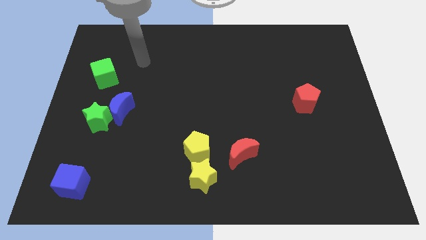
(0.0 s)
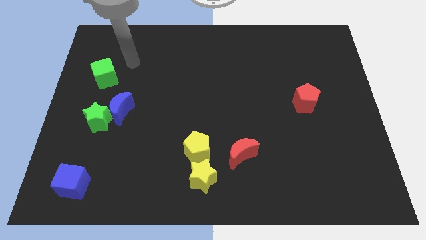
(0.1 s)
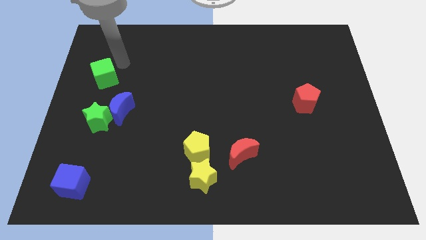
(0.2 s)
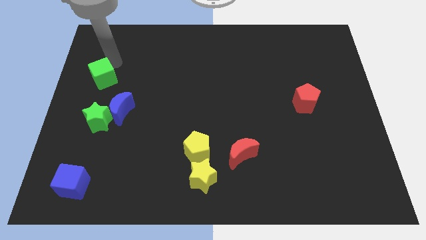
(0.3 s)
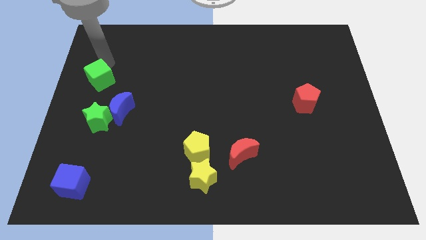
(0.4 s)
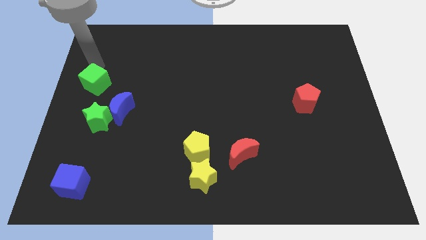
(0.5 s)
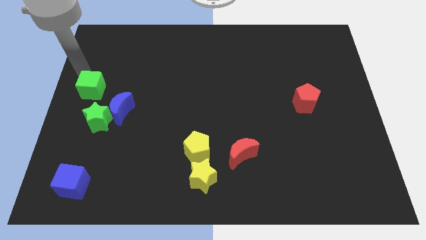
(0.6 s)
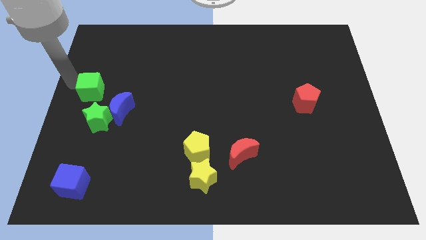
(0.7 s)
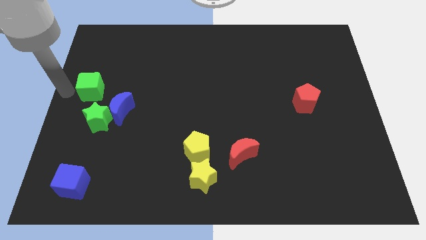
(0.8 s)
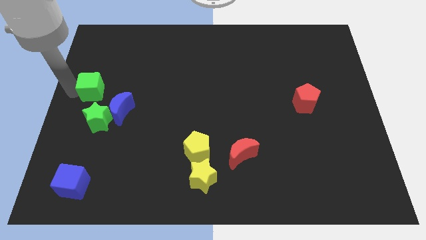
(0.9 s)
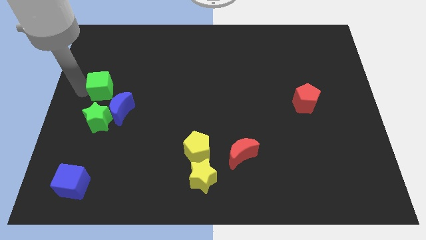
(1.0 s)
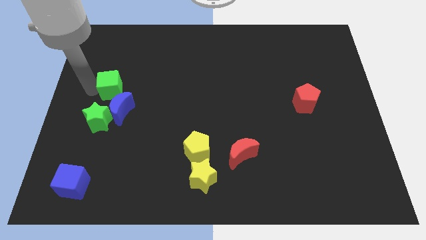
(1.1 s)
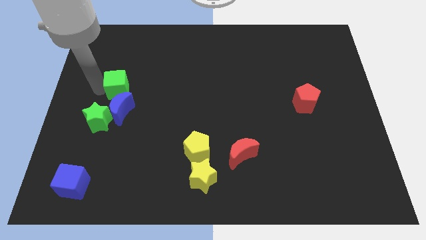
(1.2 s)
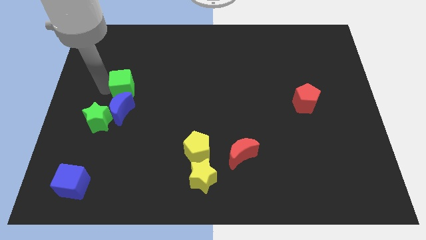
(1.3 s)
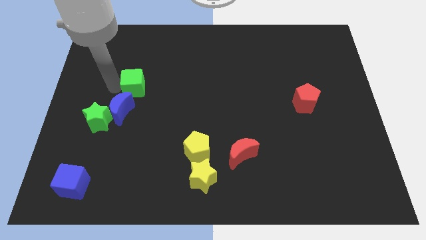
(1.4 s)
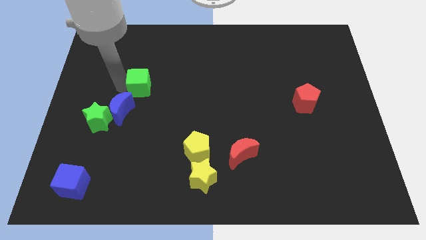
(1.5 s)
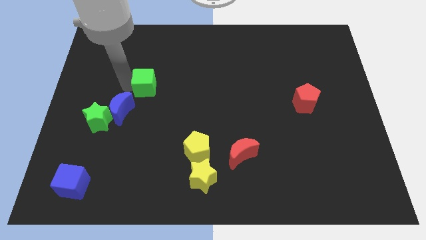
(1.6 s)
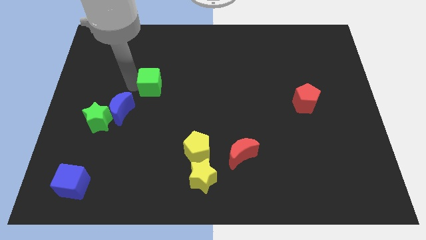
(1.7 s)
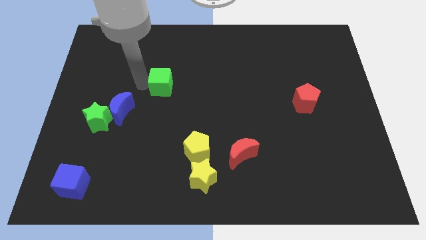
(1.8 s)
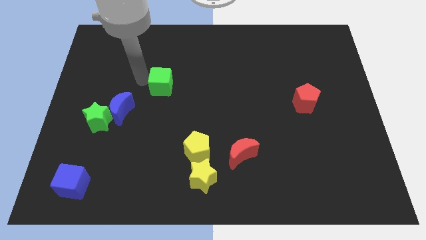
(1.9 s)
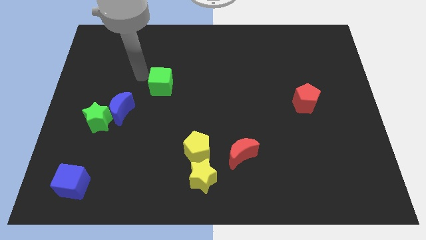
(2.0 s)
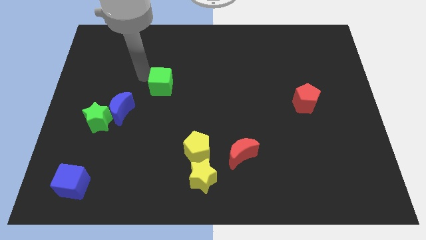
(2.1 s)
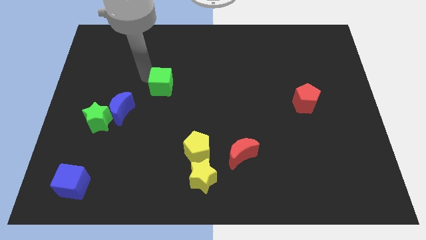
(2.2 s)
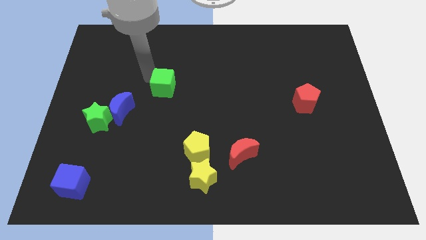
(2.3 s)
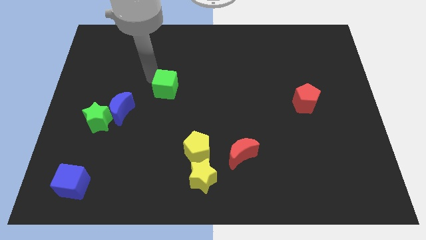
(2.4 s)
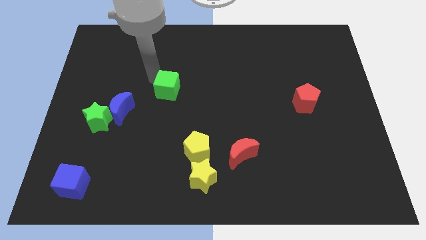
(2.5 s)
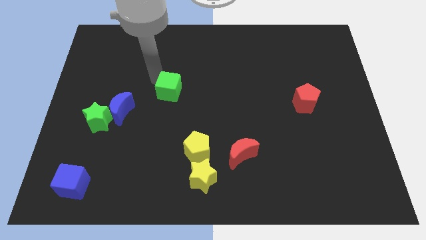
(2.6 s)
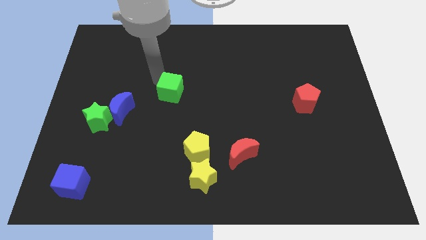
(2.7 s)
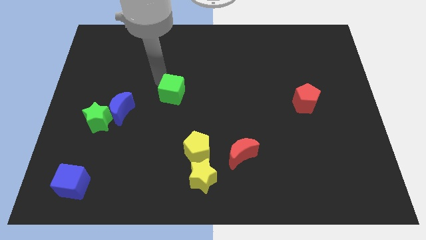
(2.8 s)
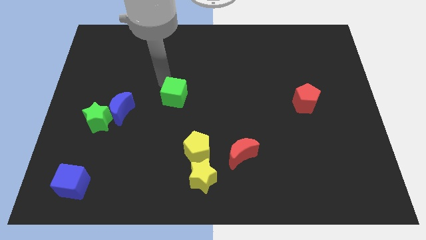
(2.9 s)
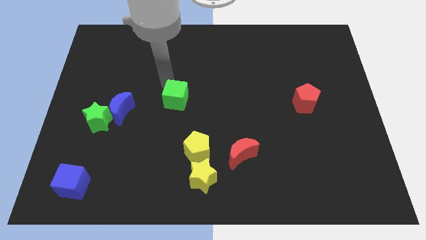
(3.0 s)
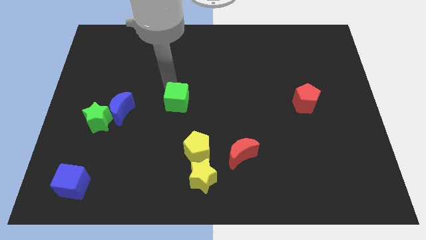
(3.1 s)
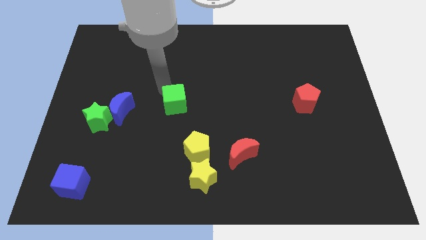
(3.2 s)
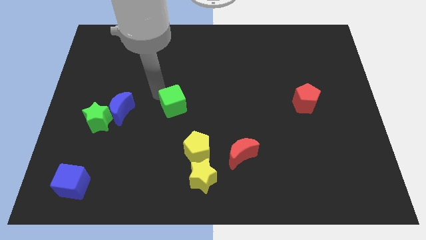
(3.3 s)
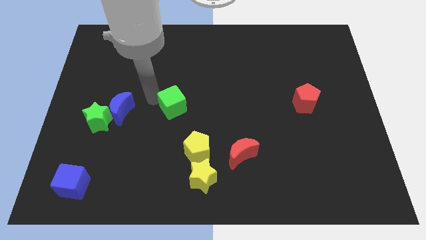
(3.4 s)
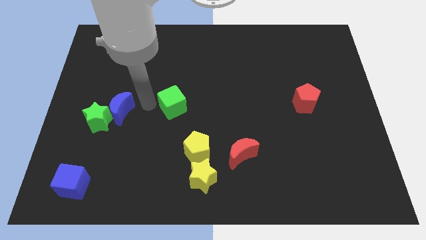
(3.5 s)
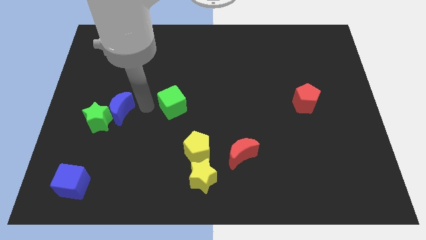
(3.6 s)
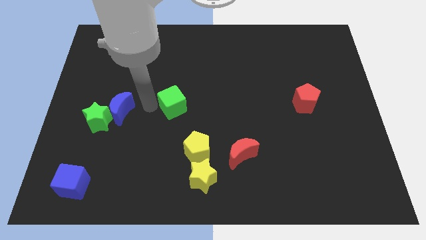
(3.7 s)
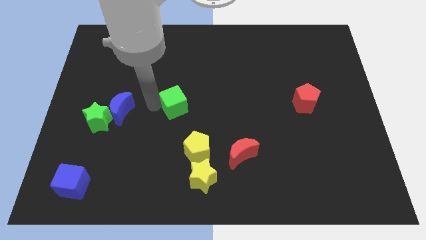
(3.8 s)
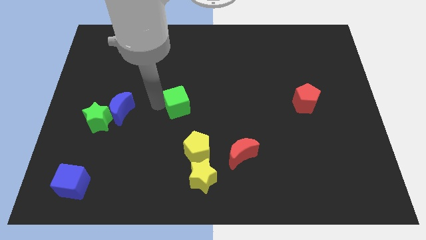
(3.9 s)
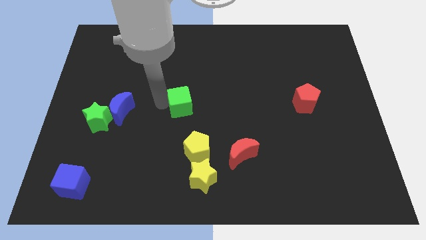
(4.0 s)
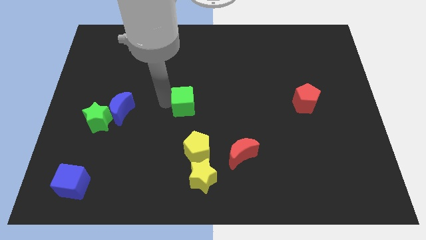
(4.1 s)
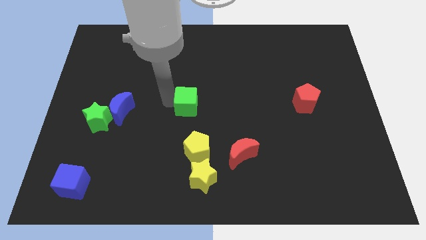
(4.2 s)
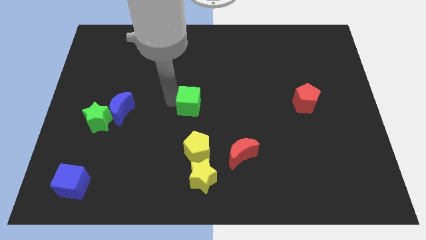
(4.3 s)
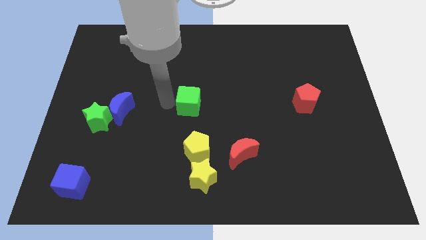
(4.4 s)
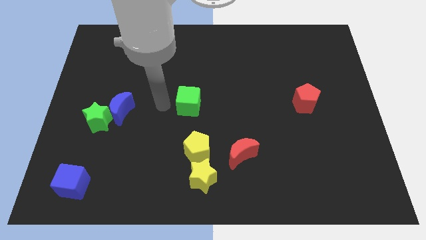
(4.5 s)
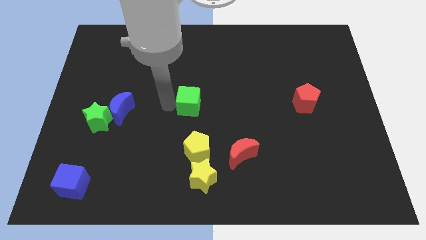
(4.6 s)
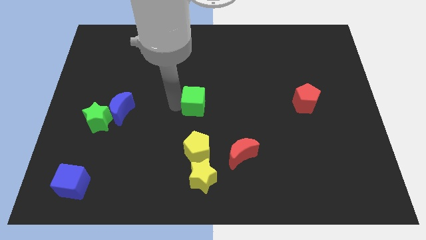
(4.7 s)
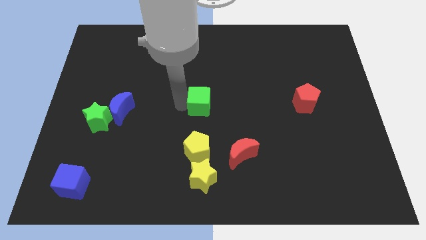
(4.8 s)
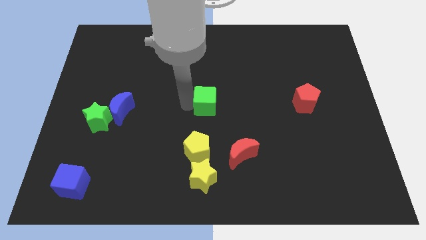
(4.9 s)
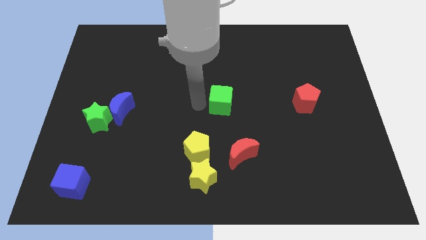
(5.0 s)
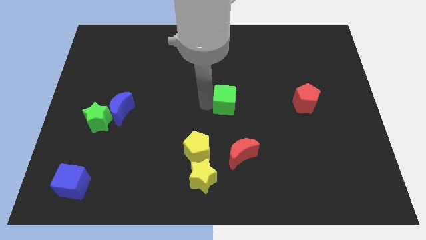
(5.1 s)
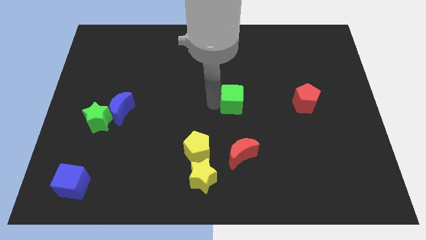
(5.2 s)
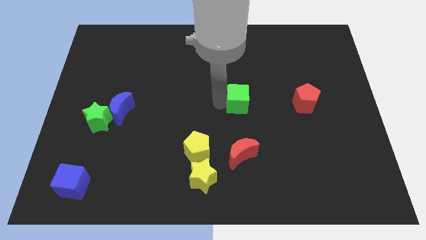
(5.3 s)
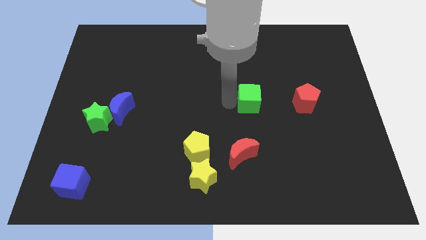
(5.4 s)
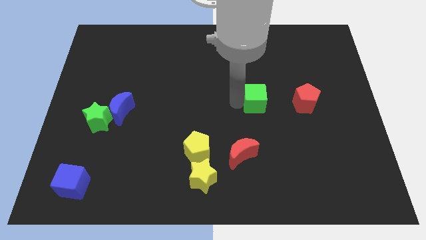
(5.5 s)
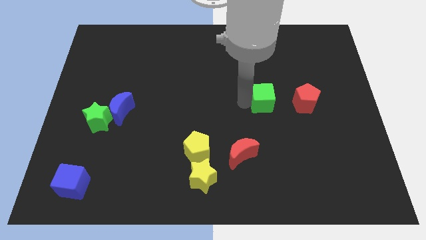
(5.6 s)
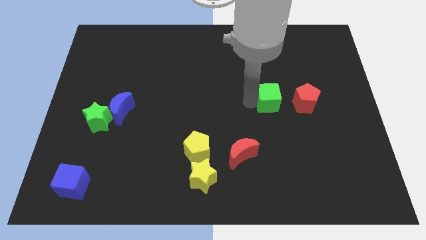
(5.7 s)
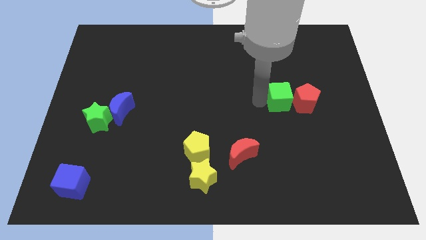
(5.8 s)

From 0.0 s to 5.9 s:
slide the green cube next to the red pentagon
